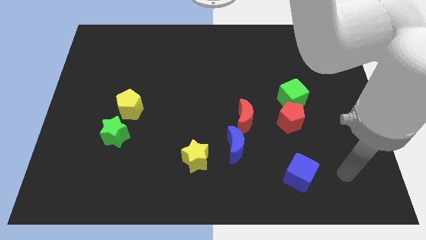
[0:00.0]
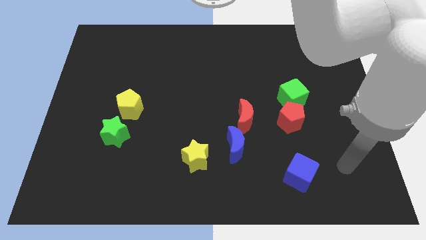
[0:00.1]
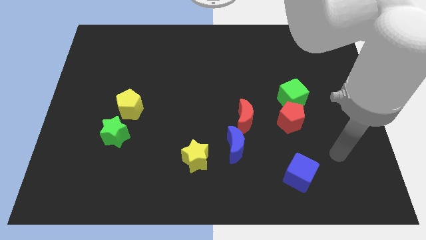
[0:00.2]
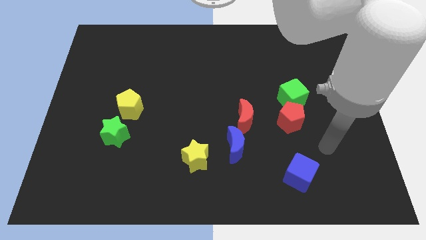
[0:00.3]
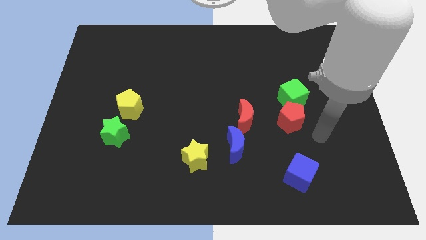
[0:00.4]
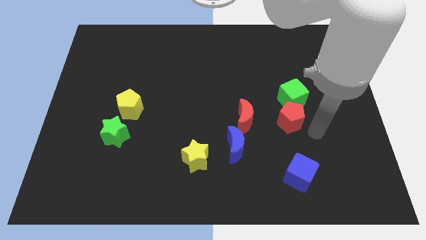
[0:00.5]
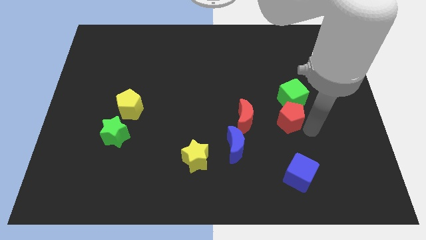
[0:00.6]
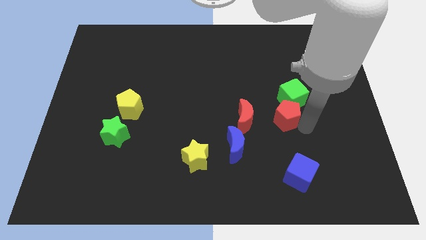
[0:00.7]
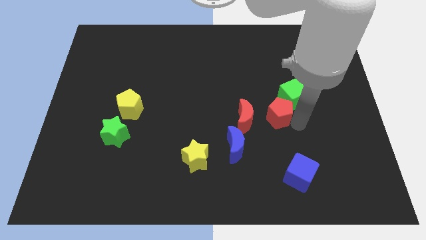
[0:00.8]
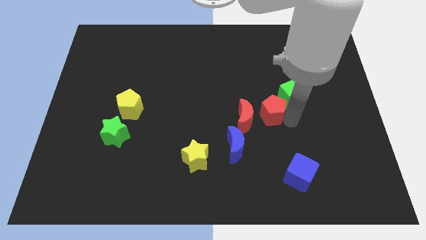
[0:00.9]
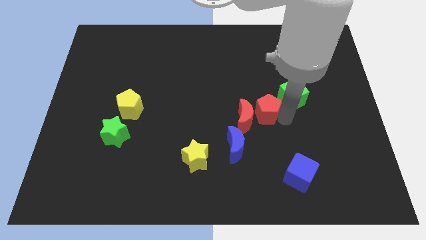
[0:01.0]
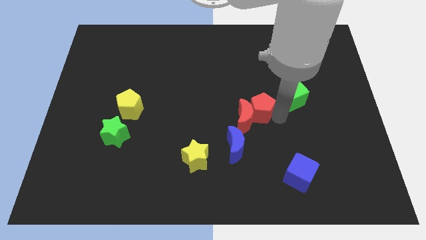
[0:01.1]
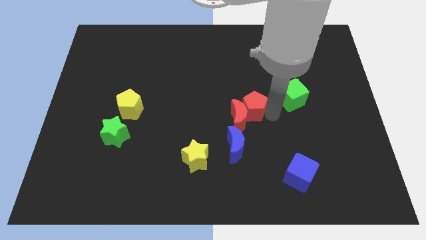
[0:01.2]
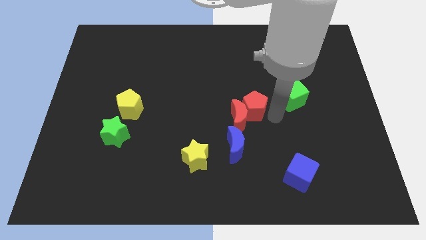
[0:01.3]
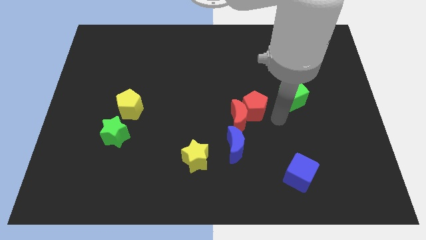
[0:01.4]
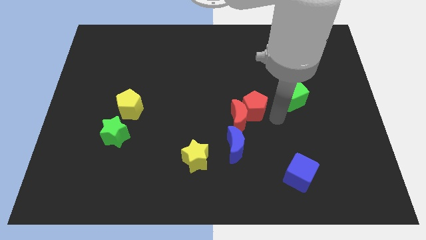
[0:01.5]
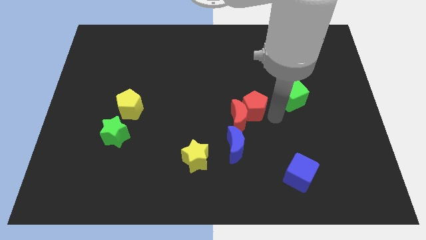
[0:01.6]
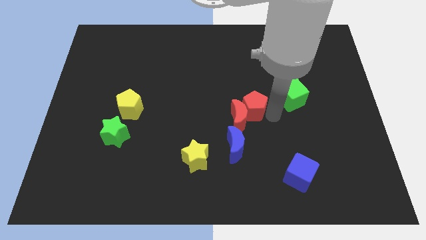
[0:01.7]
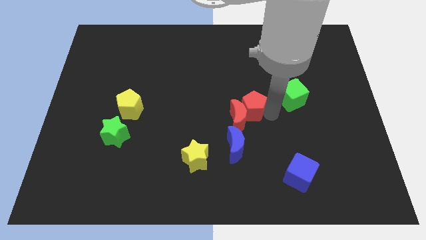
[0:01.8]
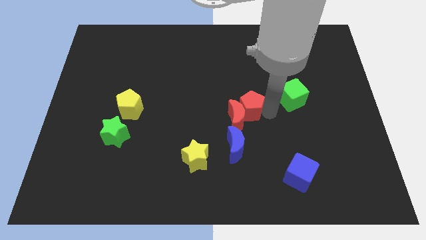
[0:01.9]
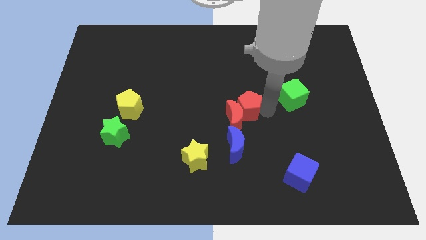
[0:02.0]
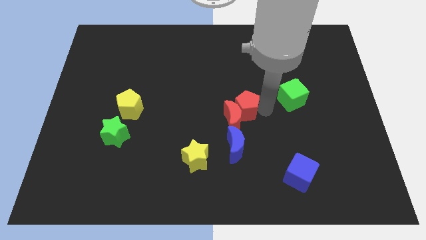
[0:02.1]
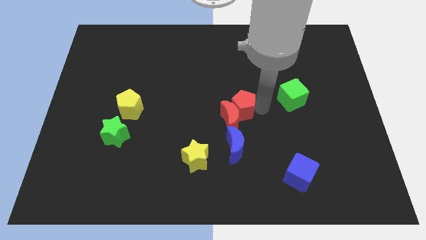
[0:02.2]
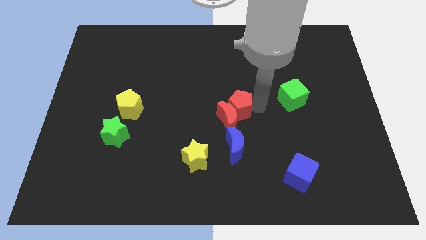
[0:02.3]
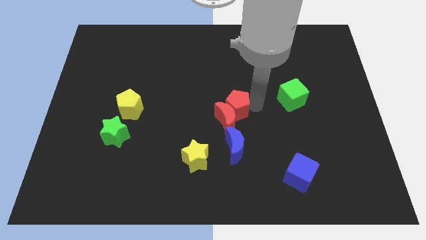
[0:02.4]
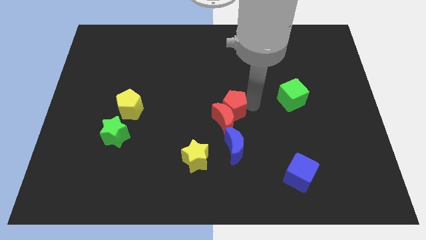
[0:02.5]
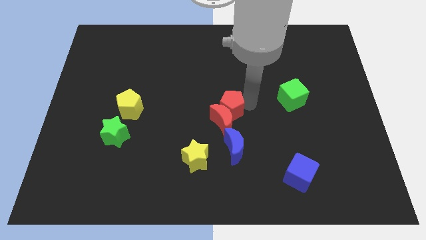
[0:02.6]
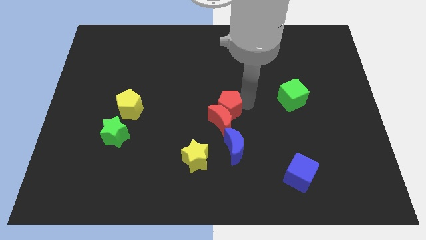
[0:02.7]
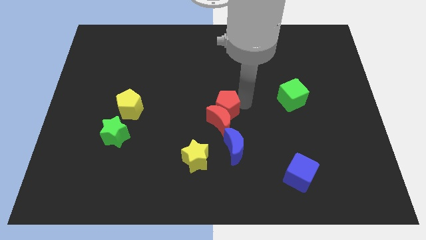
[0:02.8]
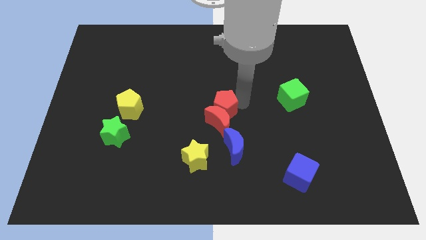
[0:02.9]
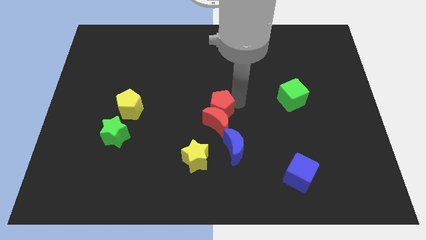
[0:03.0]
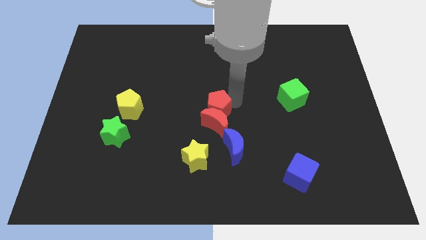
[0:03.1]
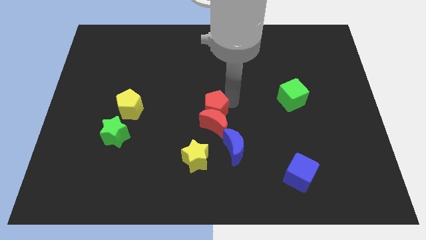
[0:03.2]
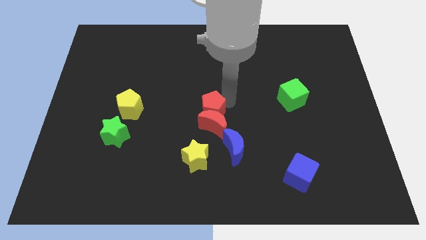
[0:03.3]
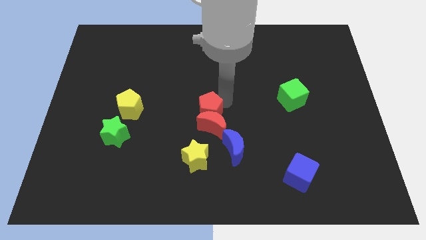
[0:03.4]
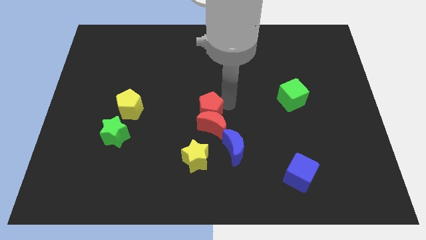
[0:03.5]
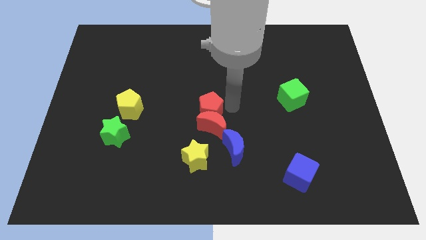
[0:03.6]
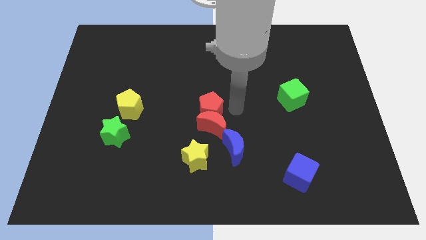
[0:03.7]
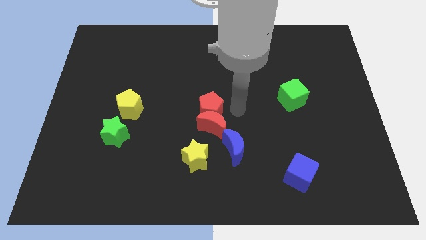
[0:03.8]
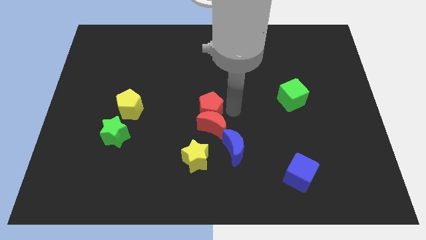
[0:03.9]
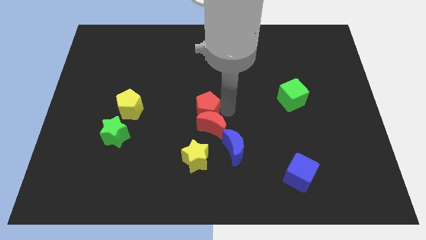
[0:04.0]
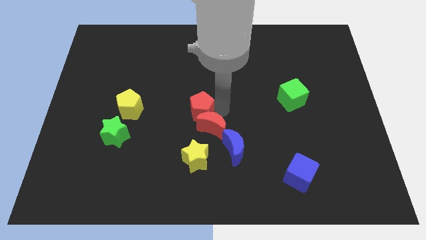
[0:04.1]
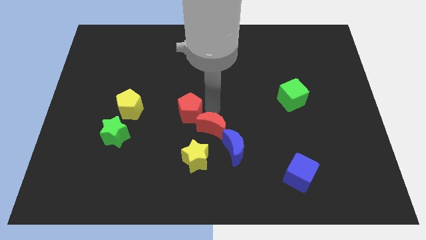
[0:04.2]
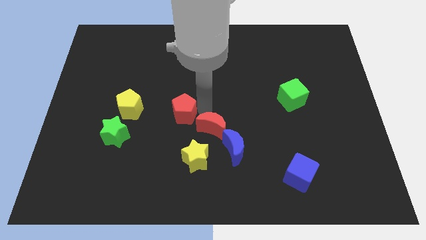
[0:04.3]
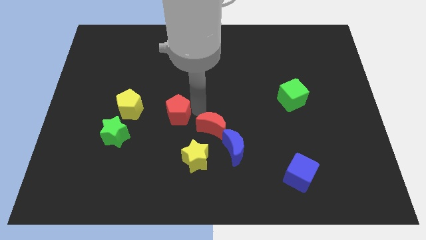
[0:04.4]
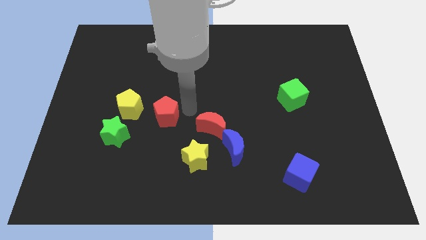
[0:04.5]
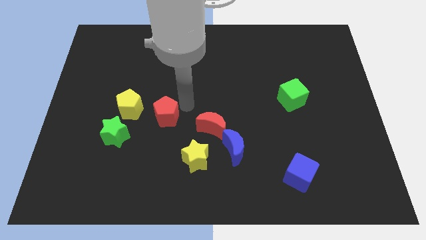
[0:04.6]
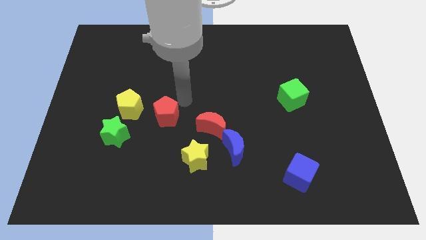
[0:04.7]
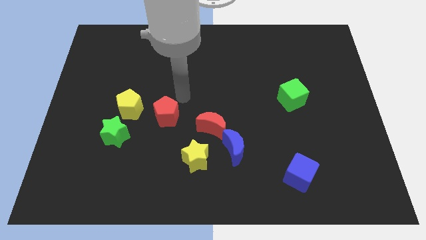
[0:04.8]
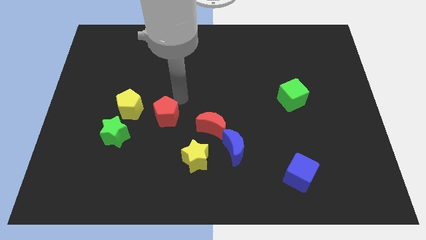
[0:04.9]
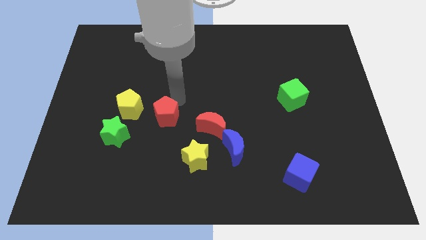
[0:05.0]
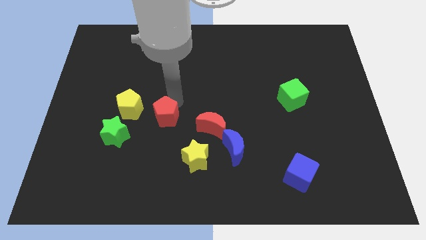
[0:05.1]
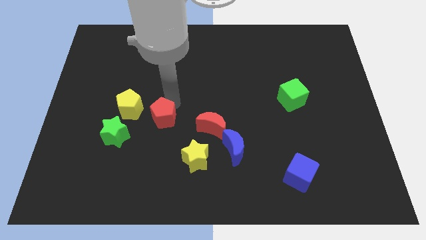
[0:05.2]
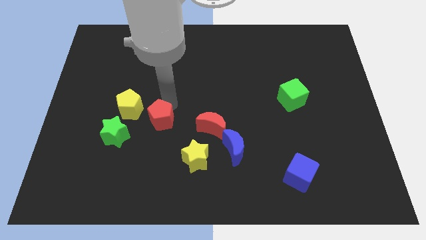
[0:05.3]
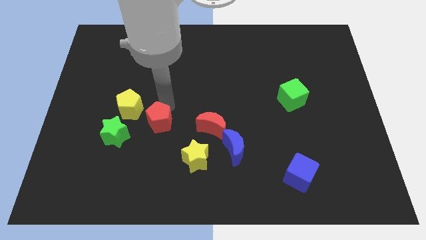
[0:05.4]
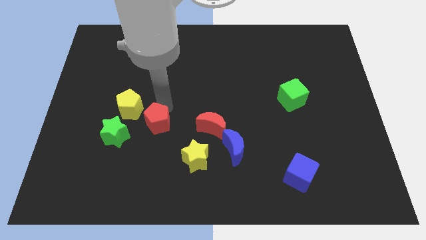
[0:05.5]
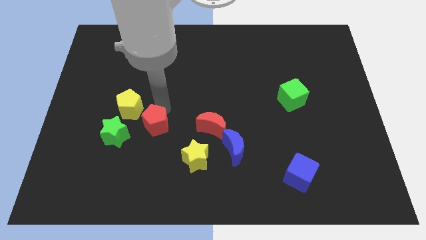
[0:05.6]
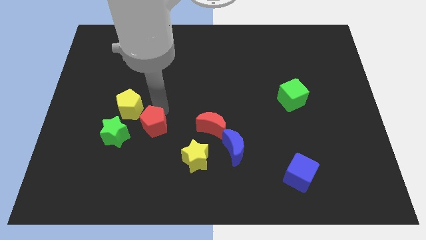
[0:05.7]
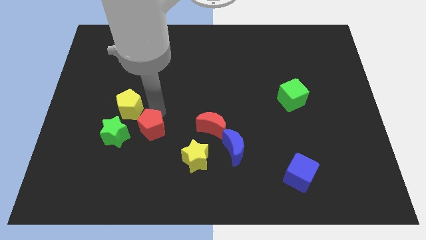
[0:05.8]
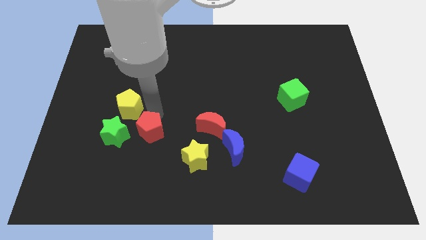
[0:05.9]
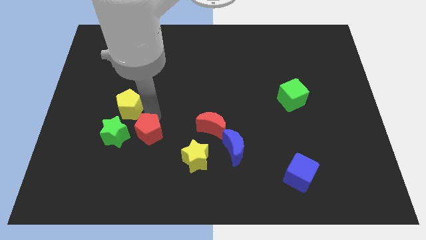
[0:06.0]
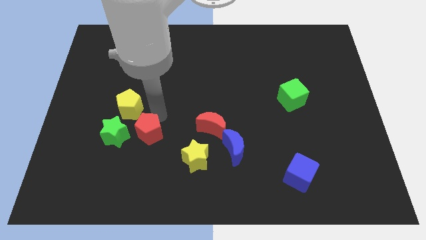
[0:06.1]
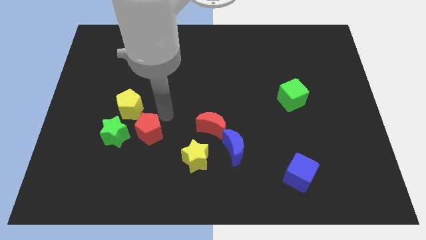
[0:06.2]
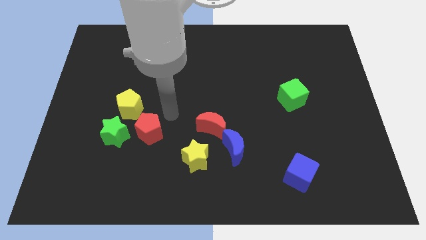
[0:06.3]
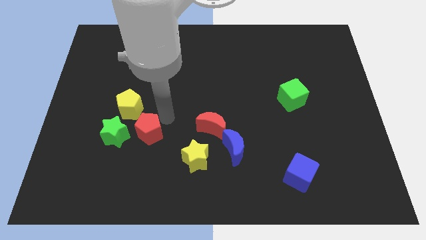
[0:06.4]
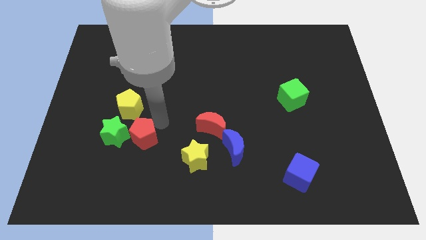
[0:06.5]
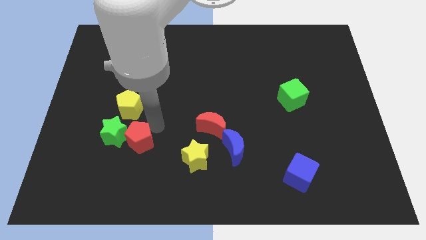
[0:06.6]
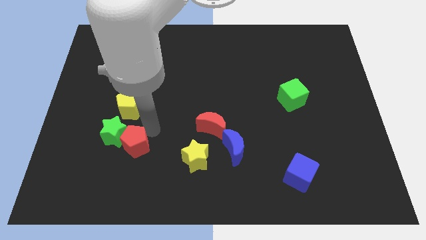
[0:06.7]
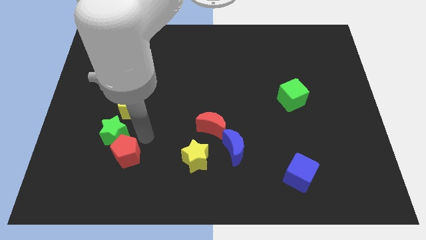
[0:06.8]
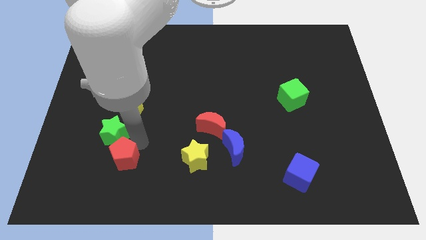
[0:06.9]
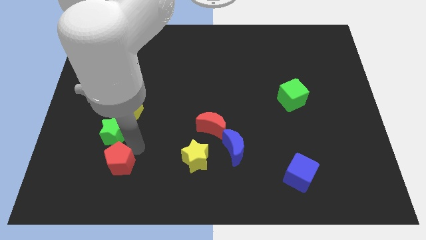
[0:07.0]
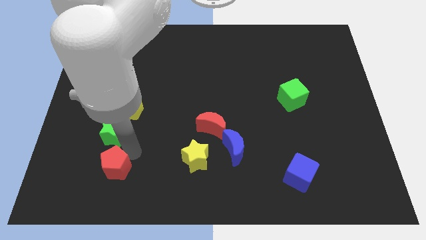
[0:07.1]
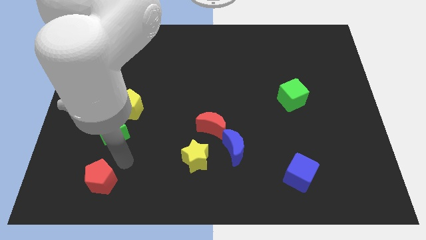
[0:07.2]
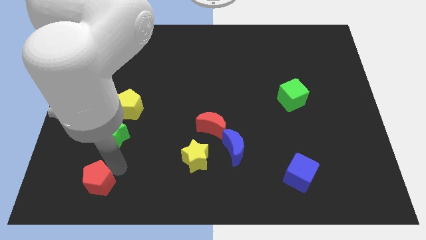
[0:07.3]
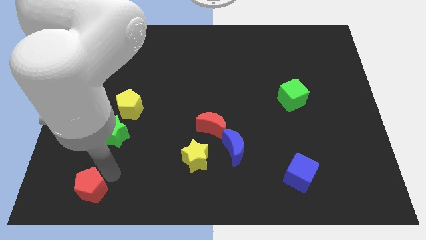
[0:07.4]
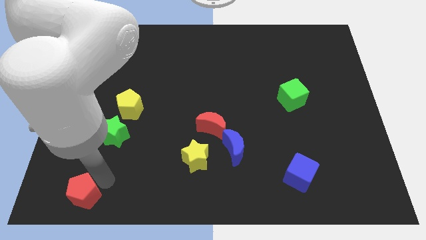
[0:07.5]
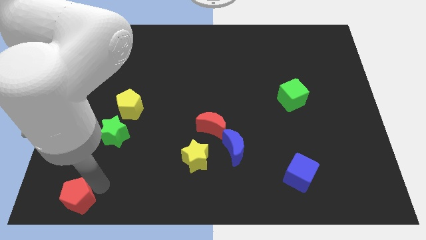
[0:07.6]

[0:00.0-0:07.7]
slide the red pentagon to the bottom left of the board
